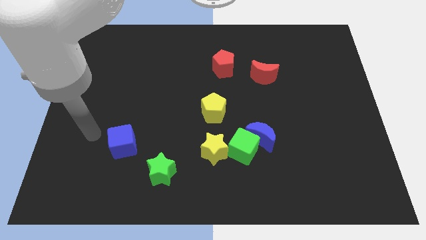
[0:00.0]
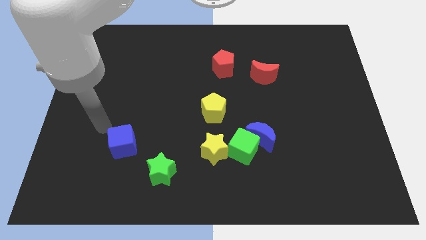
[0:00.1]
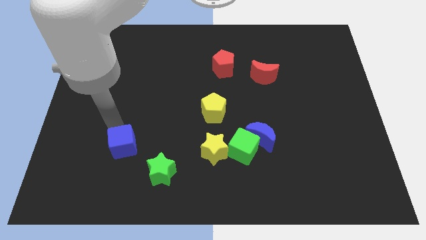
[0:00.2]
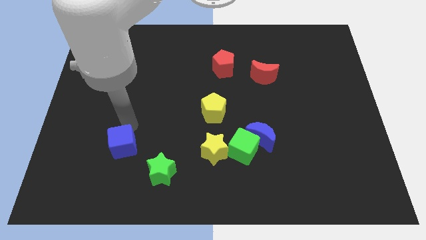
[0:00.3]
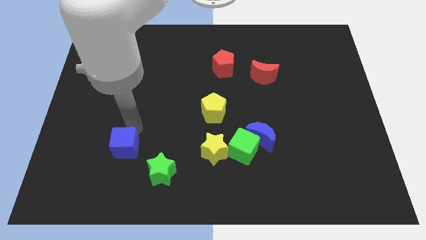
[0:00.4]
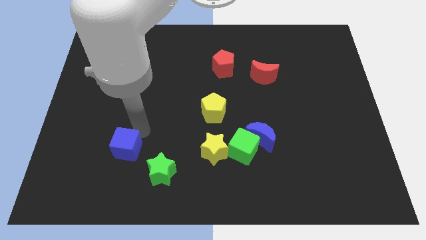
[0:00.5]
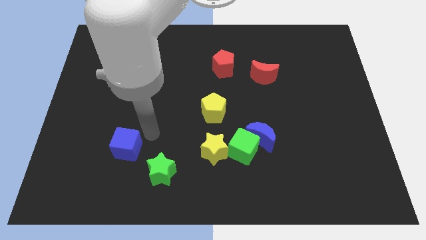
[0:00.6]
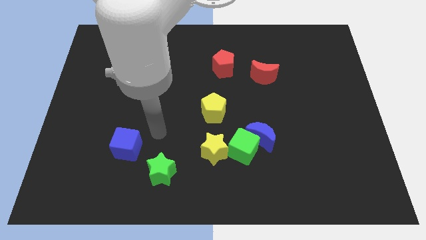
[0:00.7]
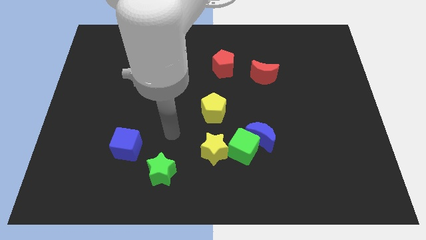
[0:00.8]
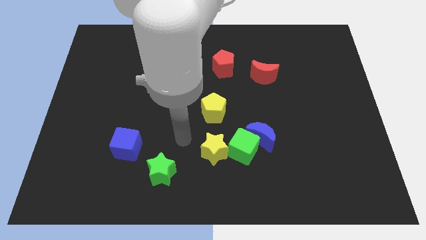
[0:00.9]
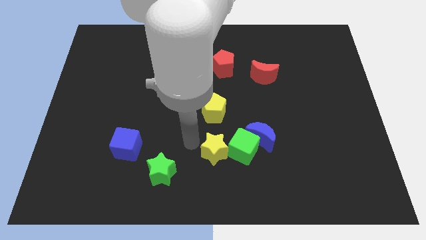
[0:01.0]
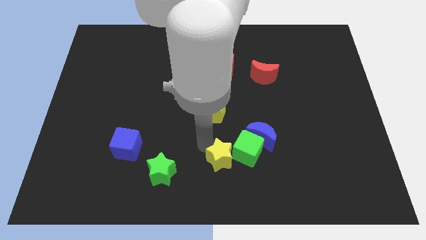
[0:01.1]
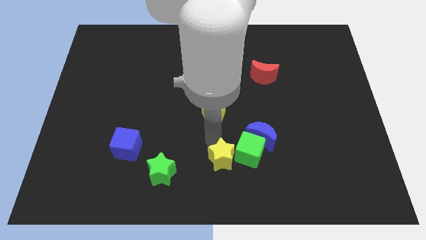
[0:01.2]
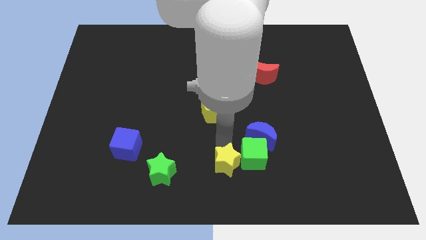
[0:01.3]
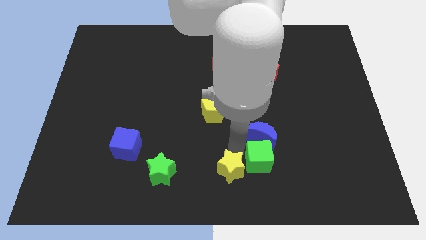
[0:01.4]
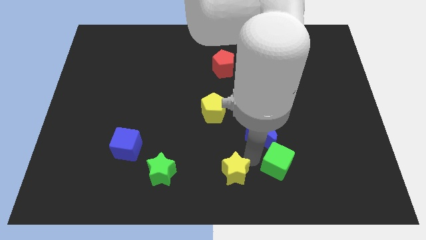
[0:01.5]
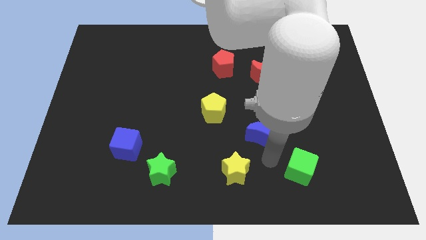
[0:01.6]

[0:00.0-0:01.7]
pull the blue moon apart from the green cube

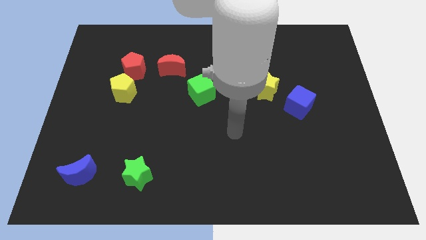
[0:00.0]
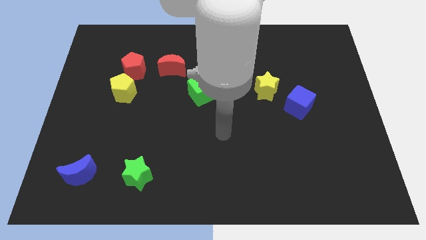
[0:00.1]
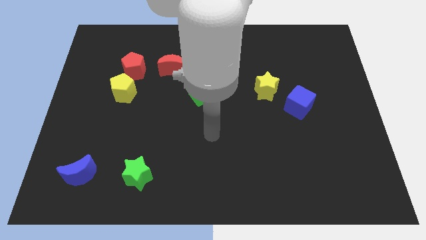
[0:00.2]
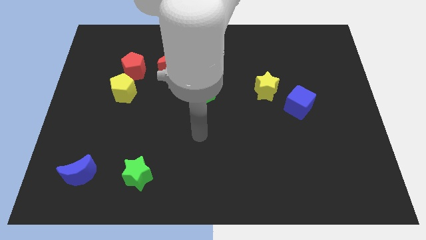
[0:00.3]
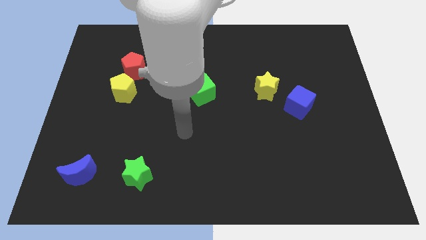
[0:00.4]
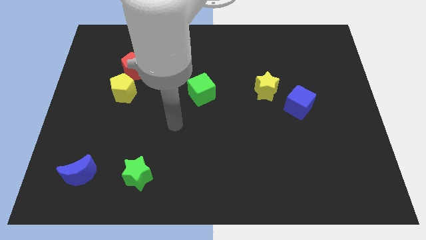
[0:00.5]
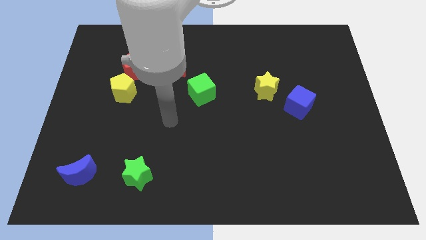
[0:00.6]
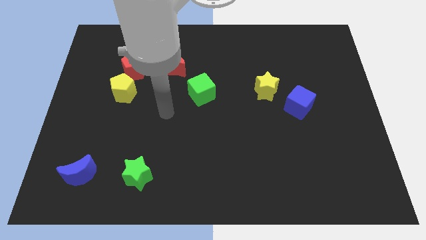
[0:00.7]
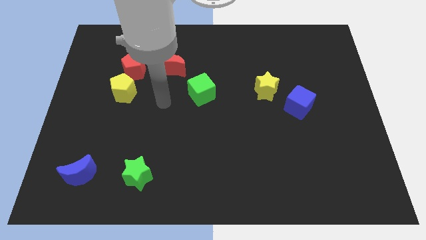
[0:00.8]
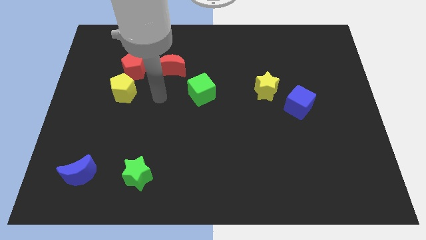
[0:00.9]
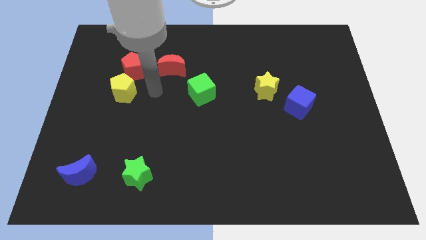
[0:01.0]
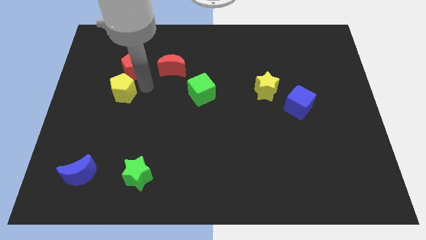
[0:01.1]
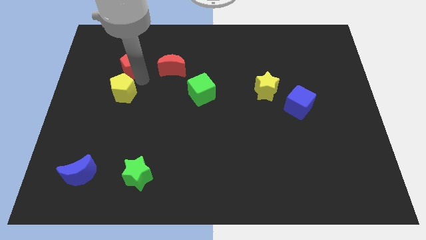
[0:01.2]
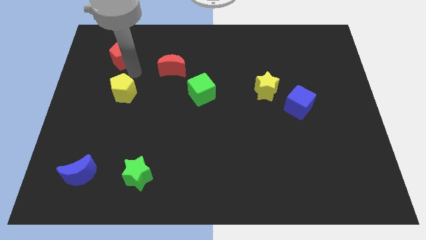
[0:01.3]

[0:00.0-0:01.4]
separate the yellow pentagon from the red pentagon

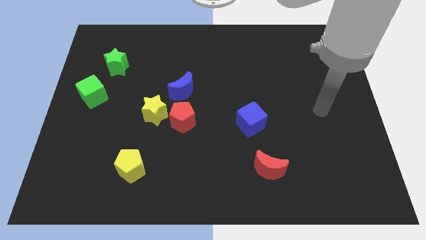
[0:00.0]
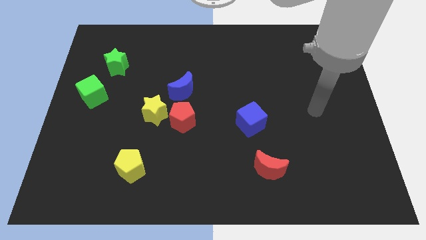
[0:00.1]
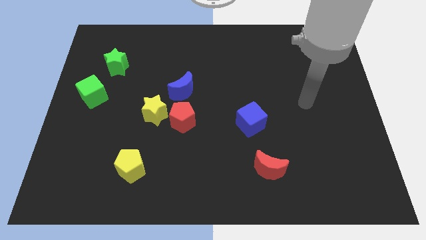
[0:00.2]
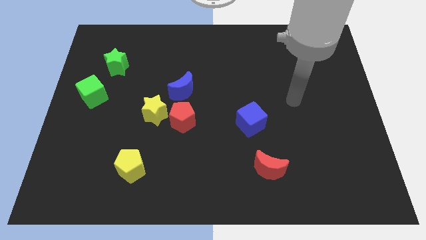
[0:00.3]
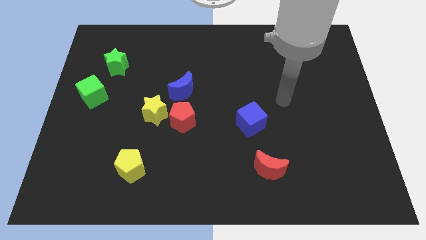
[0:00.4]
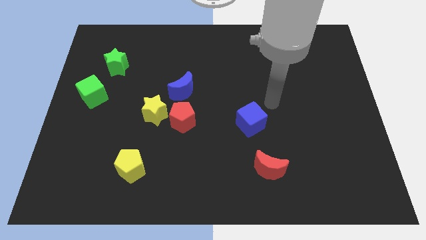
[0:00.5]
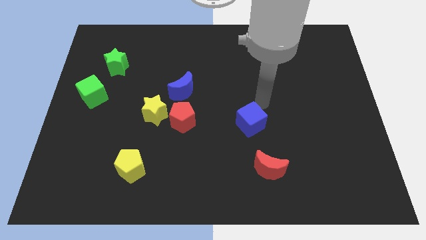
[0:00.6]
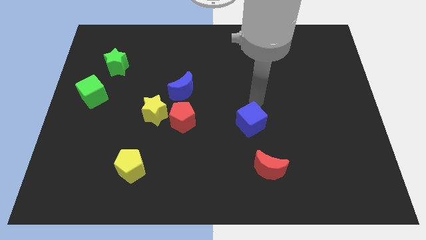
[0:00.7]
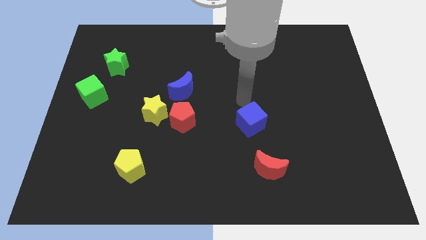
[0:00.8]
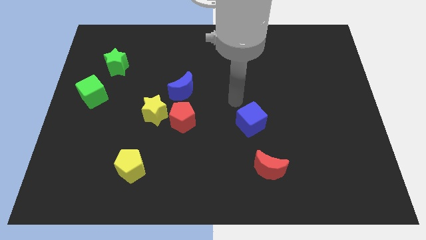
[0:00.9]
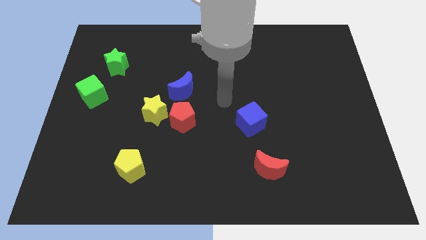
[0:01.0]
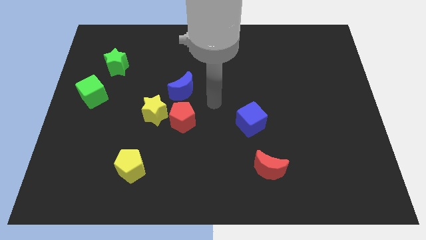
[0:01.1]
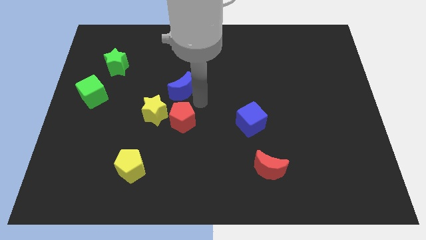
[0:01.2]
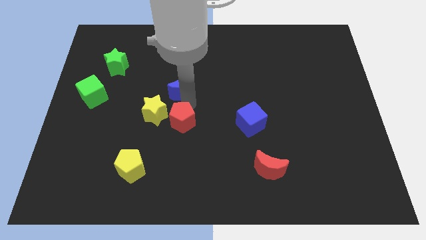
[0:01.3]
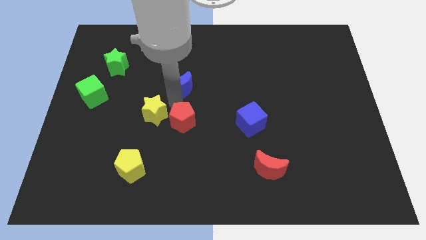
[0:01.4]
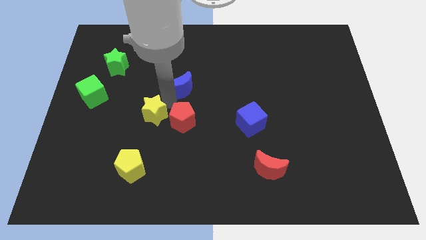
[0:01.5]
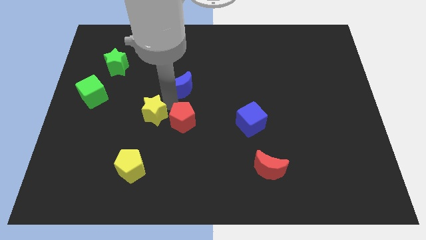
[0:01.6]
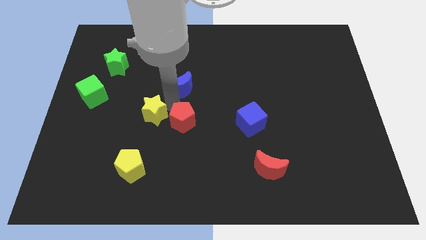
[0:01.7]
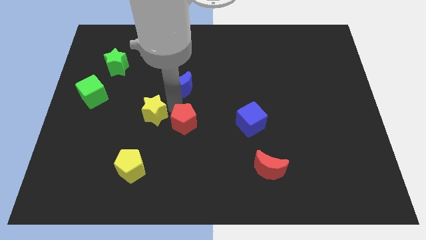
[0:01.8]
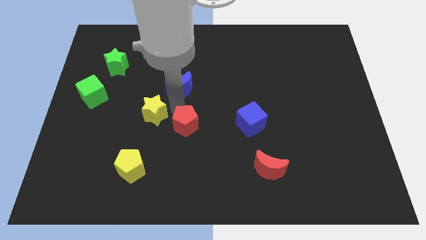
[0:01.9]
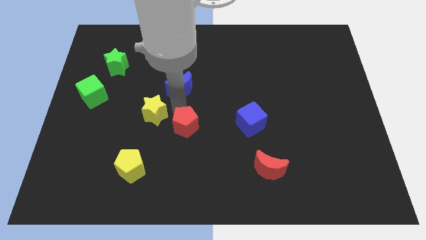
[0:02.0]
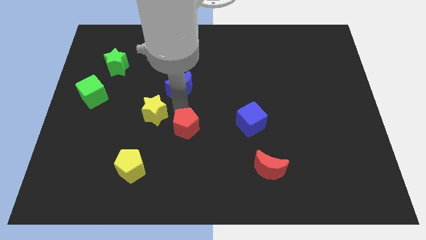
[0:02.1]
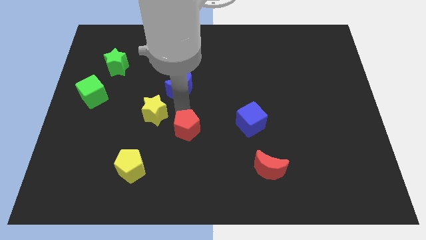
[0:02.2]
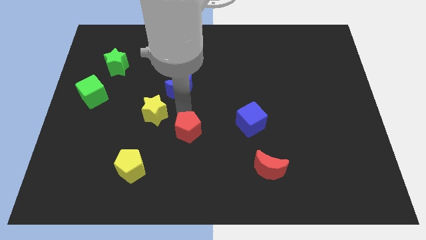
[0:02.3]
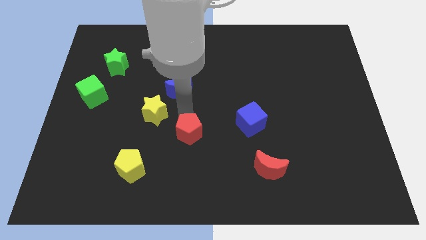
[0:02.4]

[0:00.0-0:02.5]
separate the red pentagon from the yellow star and blue moon

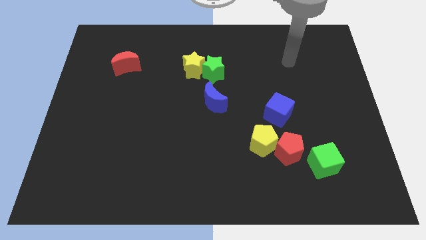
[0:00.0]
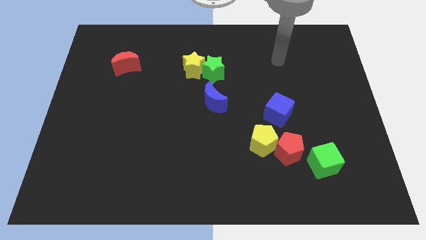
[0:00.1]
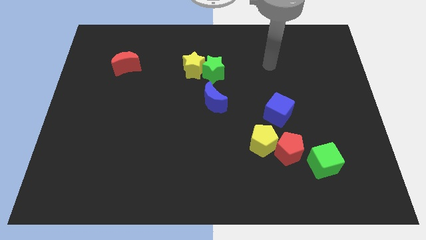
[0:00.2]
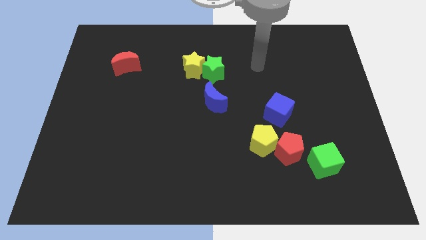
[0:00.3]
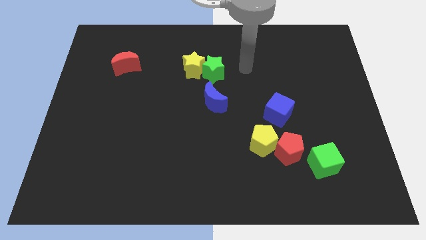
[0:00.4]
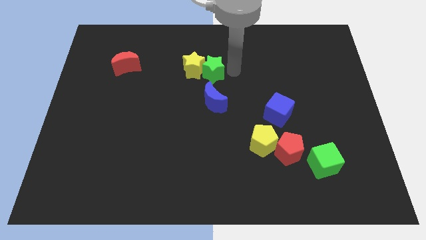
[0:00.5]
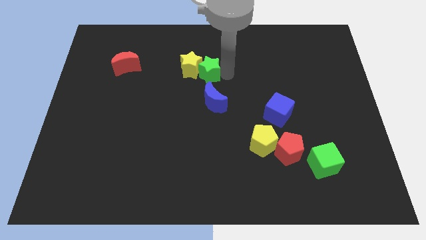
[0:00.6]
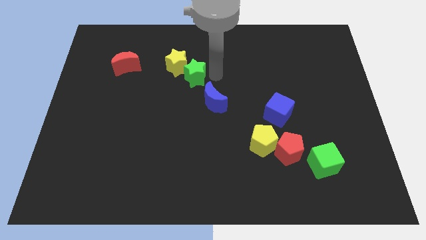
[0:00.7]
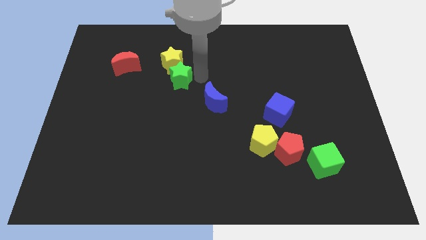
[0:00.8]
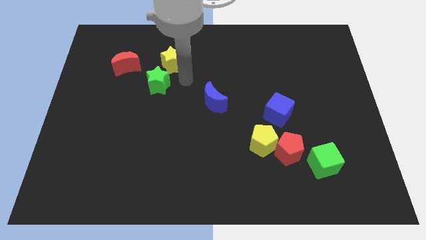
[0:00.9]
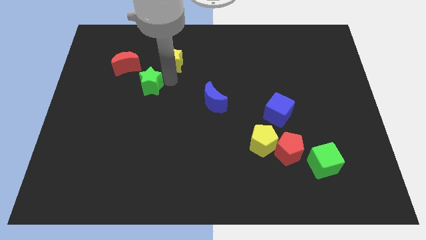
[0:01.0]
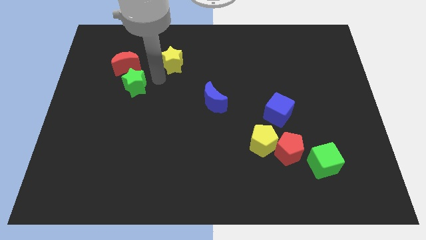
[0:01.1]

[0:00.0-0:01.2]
move the yellow star away from the green star

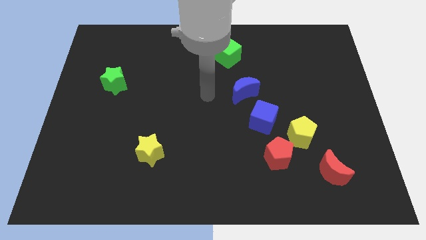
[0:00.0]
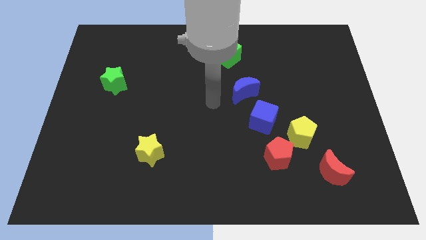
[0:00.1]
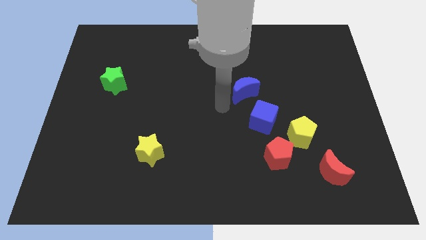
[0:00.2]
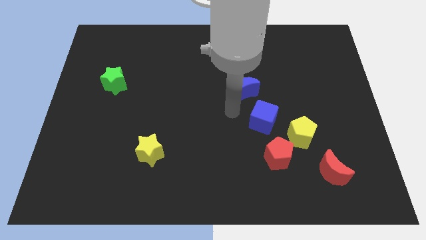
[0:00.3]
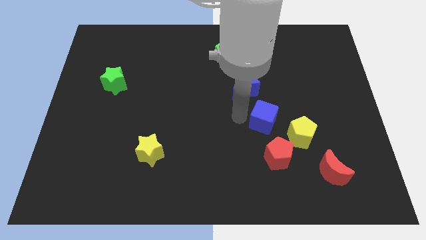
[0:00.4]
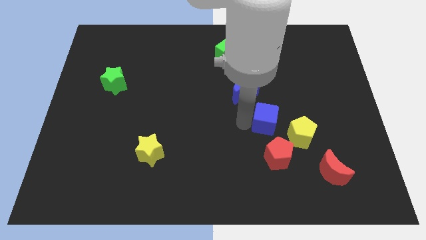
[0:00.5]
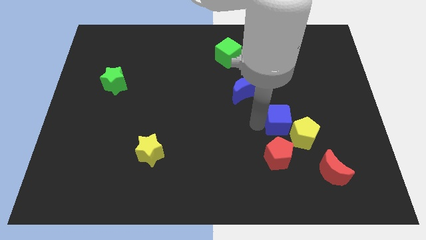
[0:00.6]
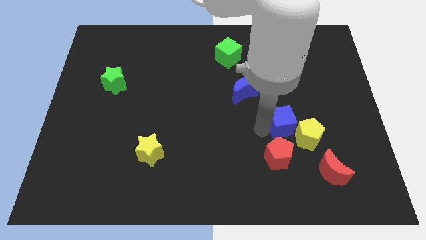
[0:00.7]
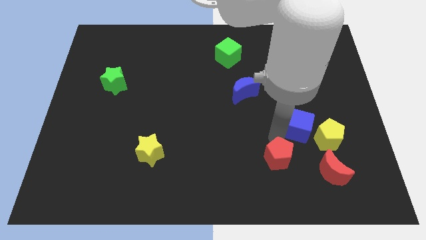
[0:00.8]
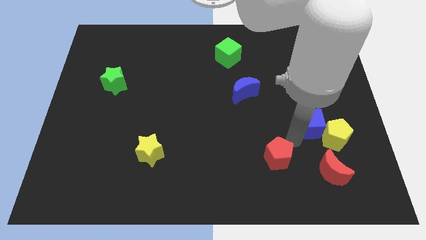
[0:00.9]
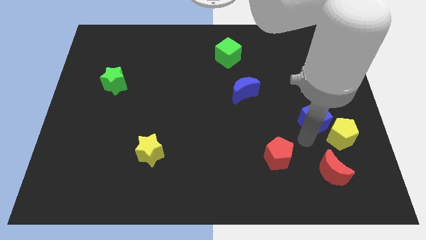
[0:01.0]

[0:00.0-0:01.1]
separate the yellow pentagon from the red pentagon and blue cube

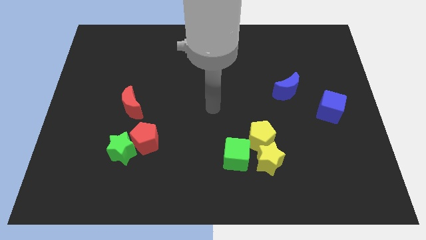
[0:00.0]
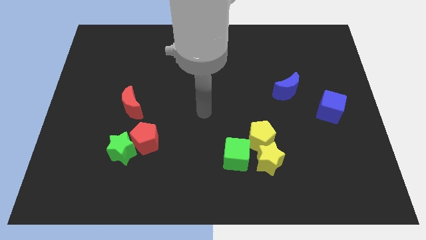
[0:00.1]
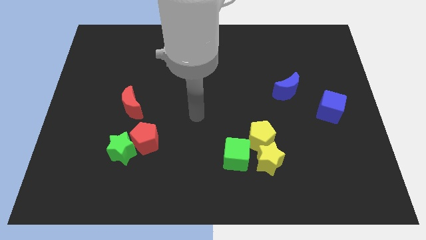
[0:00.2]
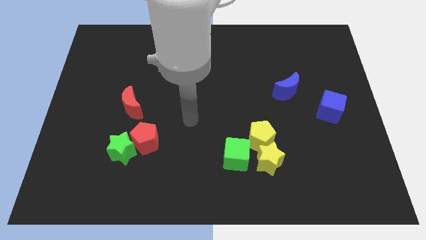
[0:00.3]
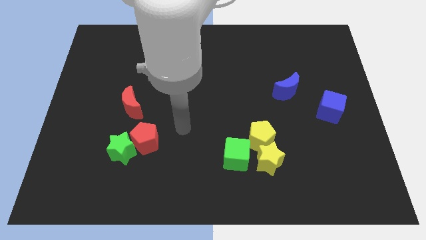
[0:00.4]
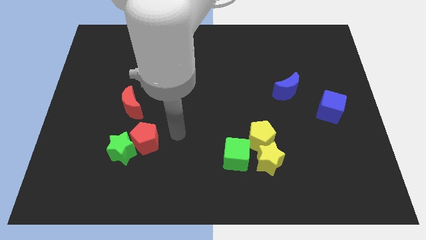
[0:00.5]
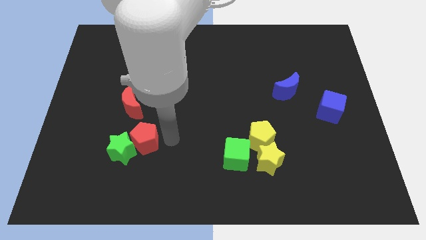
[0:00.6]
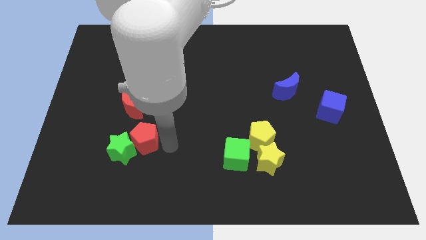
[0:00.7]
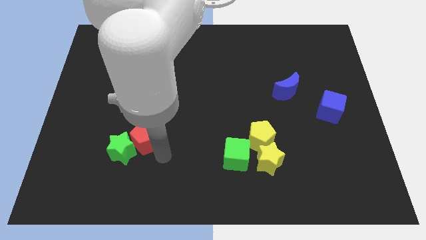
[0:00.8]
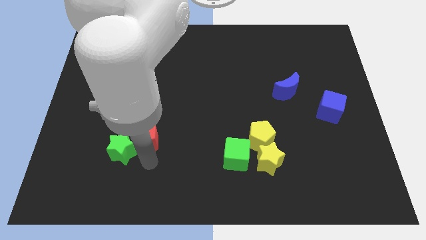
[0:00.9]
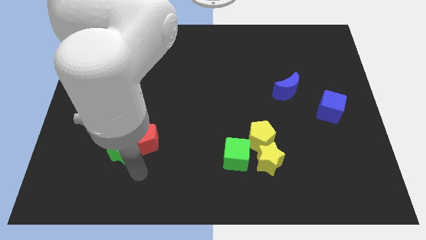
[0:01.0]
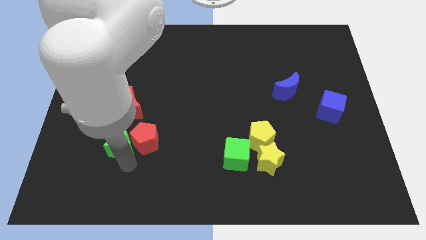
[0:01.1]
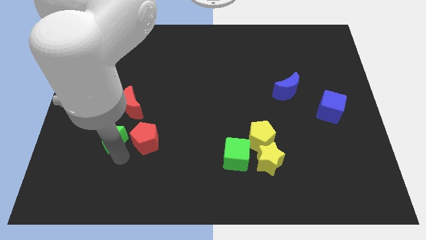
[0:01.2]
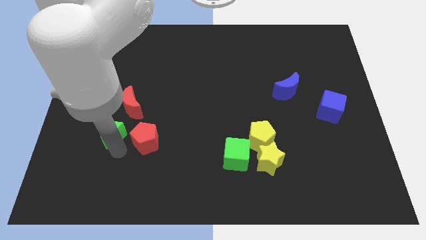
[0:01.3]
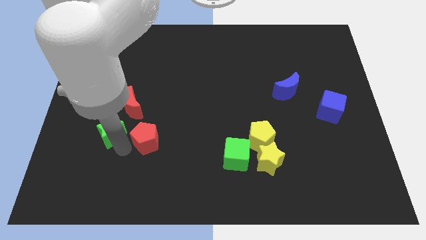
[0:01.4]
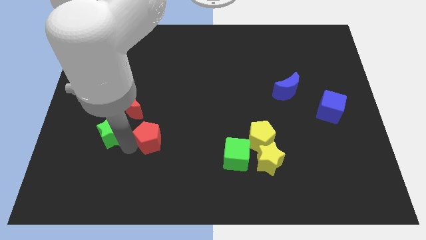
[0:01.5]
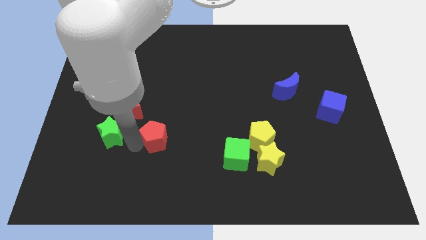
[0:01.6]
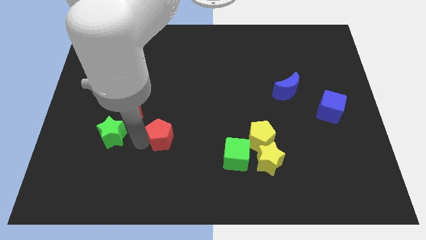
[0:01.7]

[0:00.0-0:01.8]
separate the red pentagon from the green star
